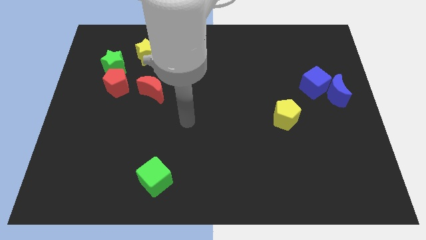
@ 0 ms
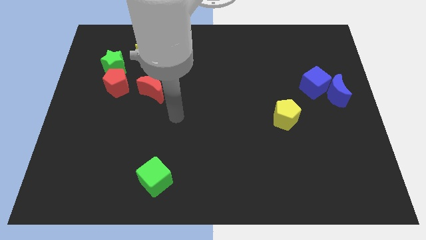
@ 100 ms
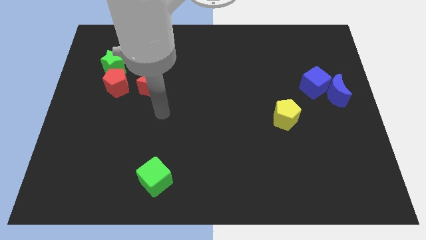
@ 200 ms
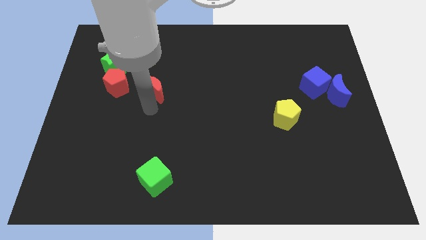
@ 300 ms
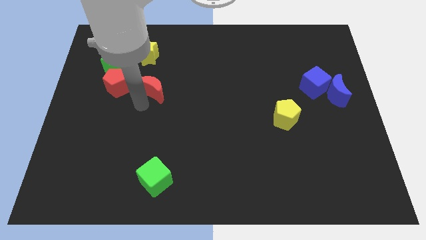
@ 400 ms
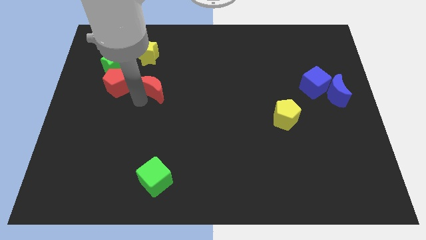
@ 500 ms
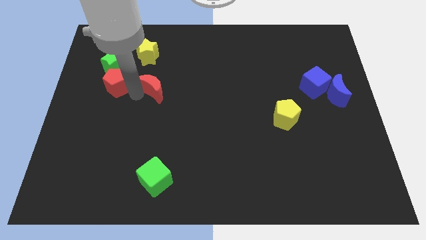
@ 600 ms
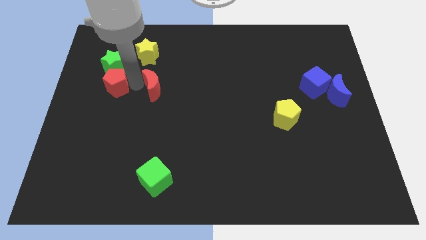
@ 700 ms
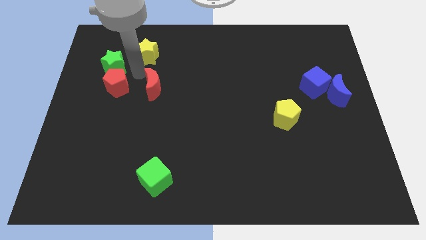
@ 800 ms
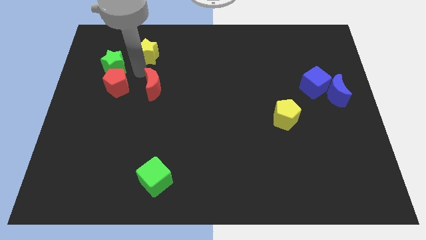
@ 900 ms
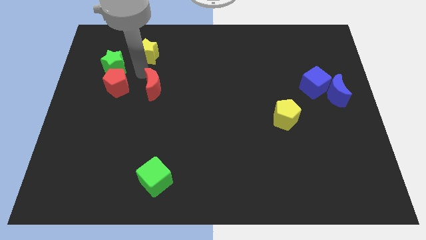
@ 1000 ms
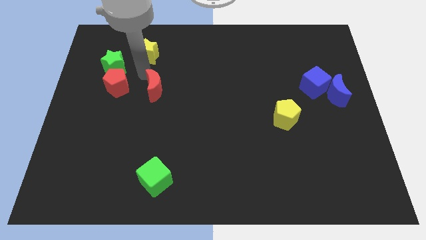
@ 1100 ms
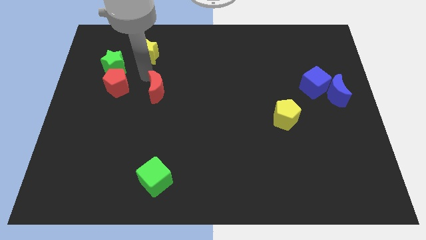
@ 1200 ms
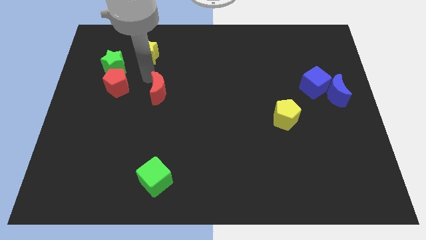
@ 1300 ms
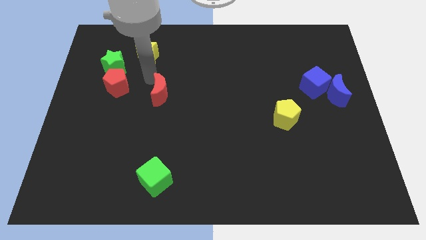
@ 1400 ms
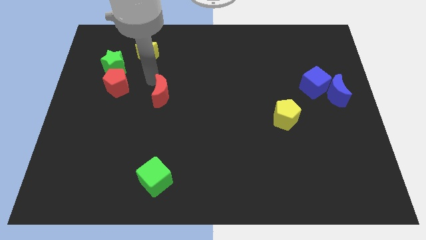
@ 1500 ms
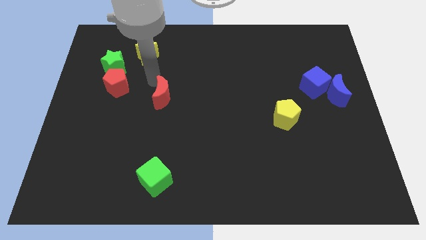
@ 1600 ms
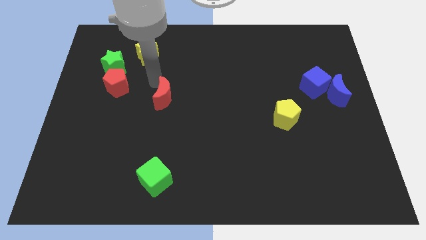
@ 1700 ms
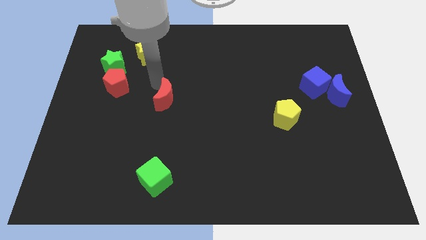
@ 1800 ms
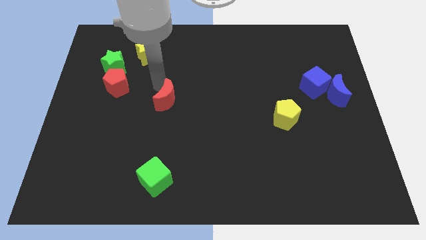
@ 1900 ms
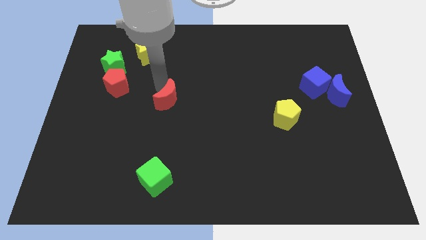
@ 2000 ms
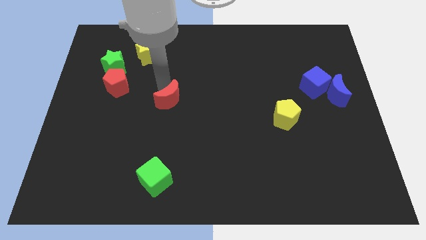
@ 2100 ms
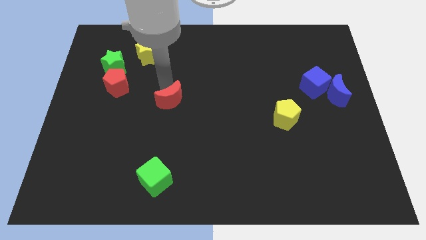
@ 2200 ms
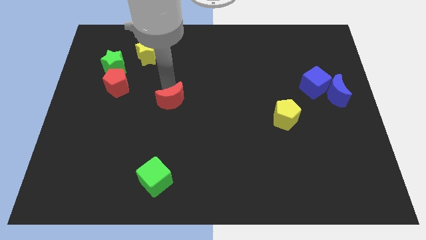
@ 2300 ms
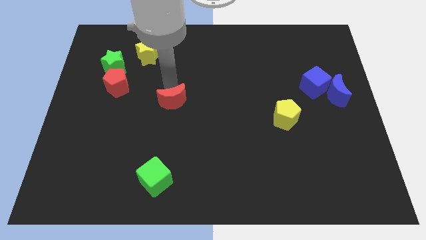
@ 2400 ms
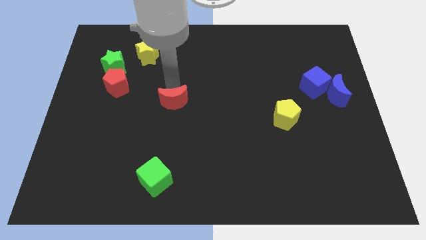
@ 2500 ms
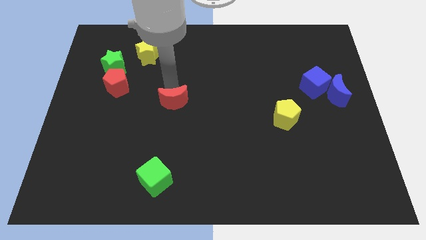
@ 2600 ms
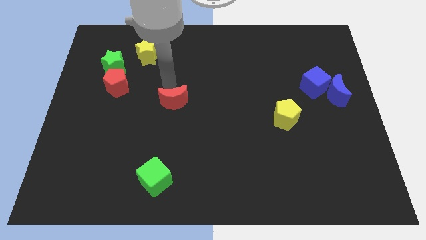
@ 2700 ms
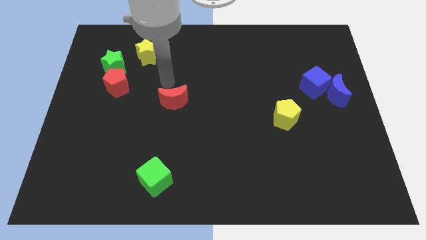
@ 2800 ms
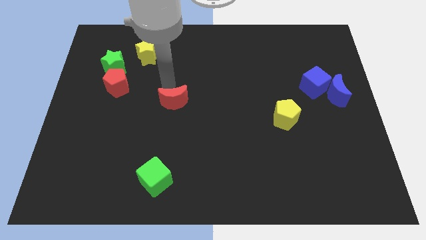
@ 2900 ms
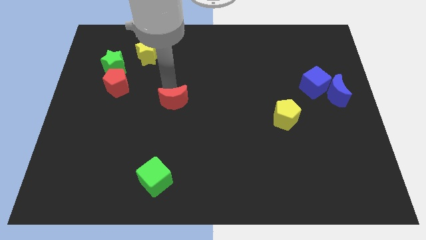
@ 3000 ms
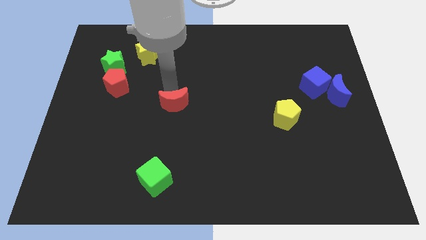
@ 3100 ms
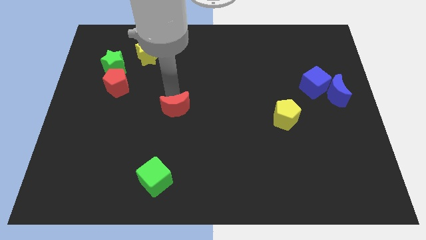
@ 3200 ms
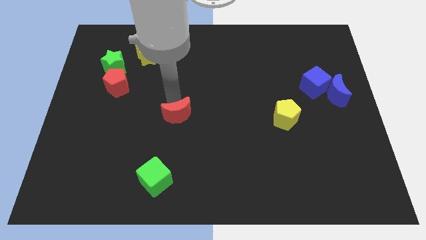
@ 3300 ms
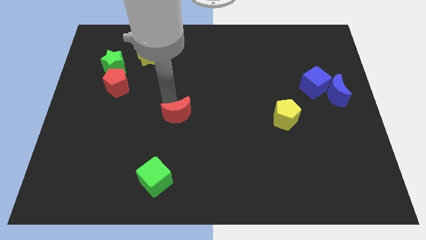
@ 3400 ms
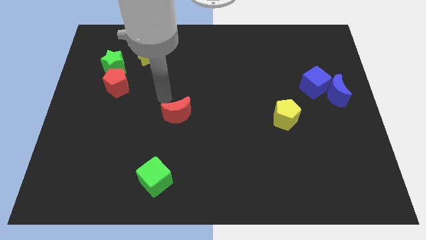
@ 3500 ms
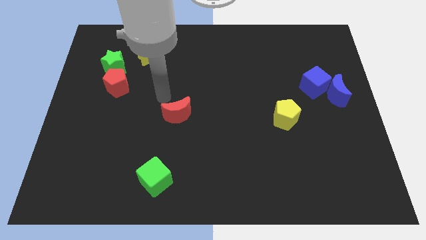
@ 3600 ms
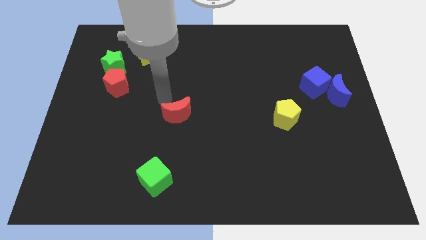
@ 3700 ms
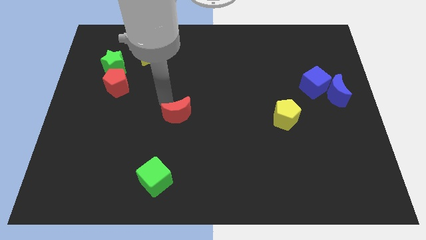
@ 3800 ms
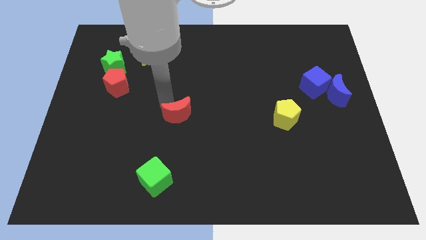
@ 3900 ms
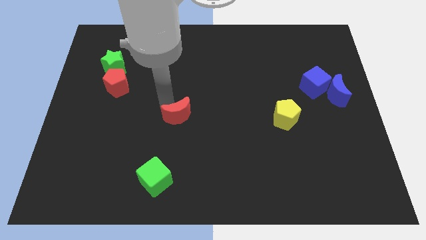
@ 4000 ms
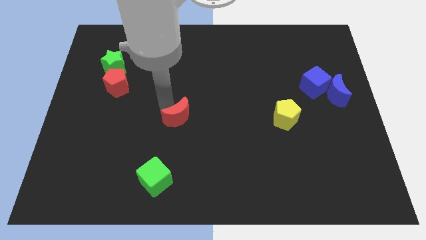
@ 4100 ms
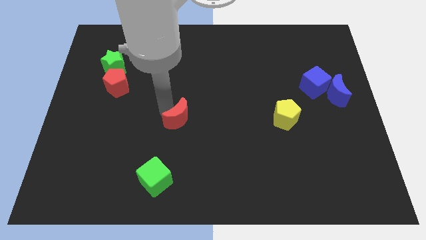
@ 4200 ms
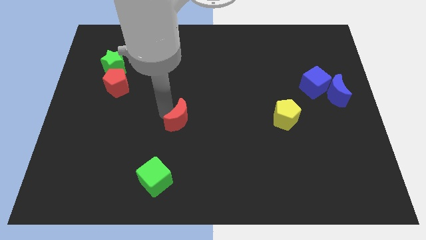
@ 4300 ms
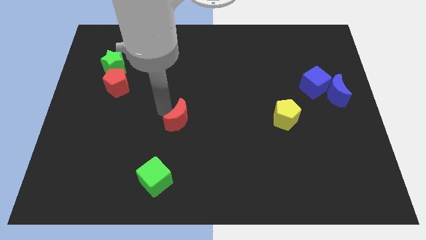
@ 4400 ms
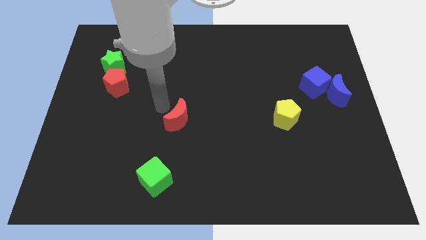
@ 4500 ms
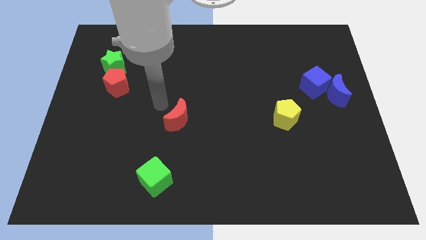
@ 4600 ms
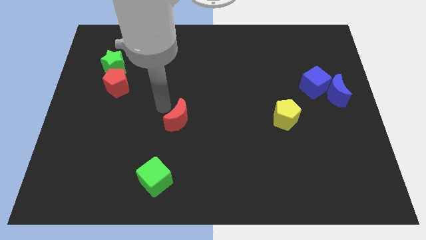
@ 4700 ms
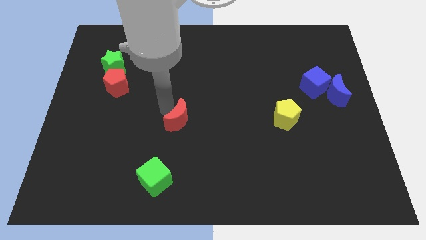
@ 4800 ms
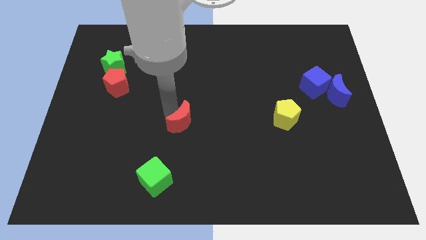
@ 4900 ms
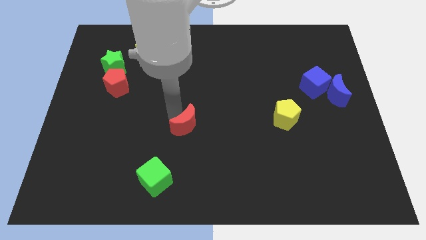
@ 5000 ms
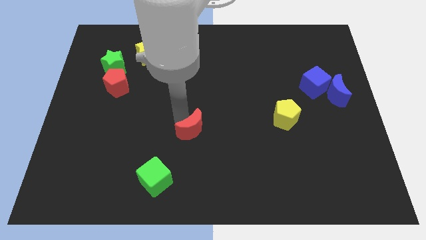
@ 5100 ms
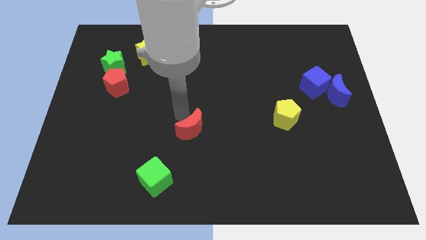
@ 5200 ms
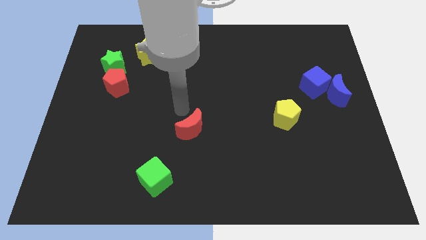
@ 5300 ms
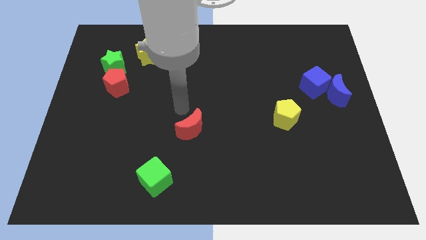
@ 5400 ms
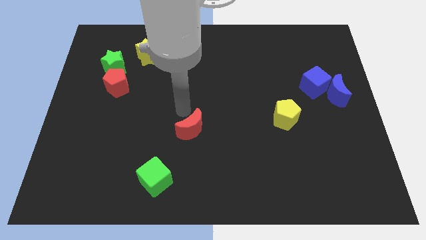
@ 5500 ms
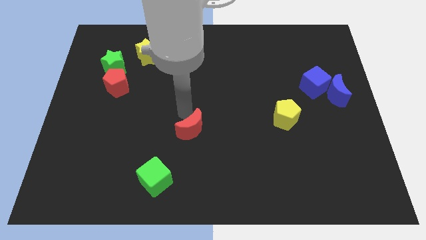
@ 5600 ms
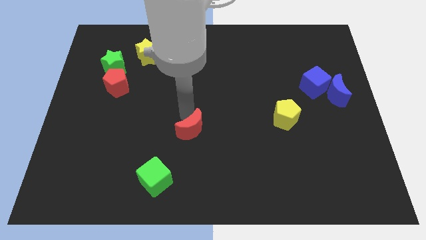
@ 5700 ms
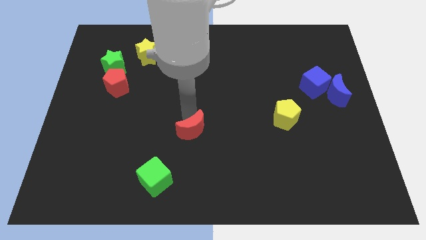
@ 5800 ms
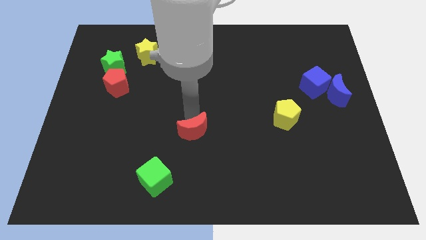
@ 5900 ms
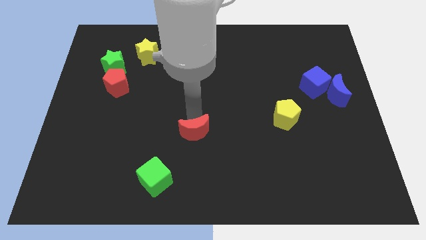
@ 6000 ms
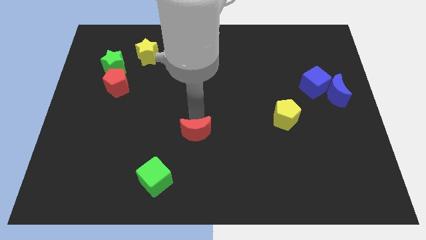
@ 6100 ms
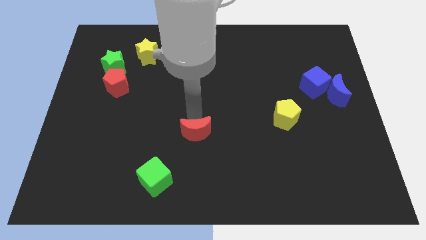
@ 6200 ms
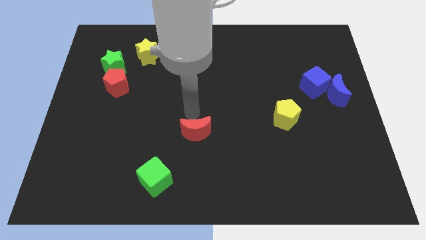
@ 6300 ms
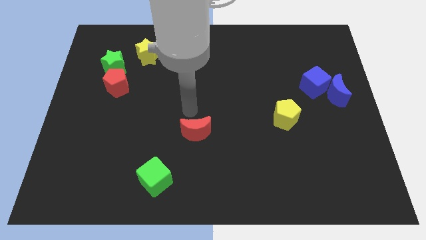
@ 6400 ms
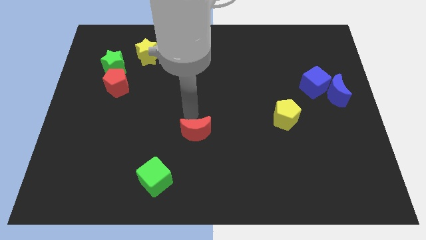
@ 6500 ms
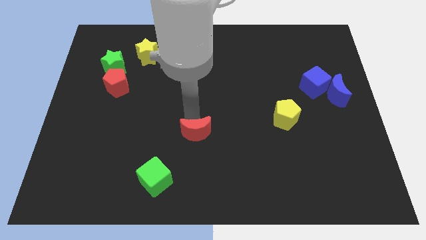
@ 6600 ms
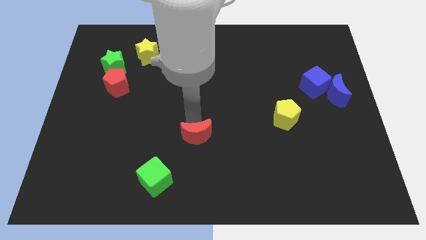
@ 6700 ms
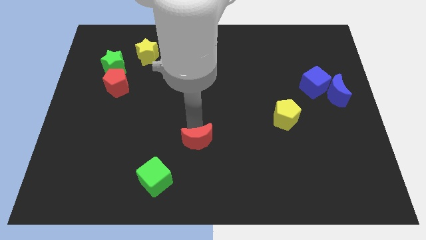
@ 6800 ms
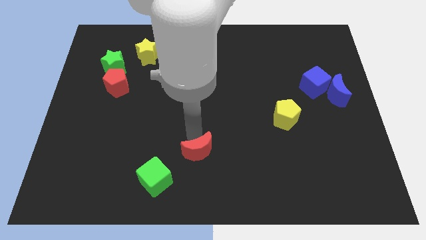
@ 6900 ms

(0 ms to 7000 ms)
move the red moon down and then to the right

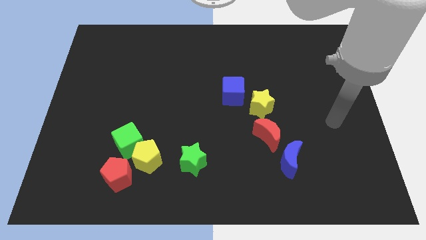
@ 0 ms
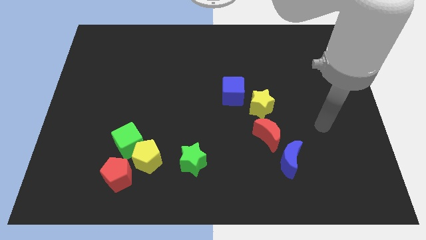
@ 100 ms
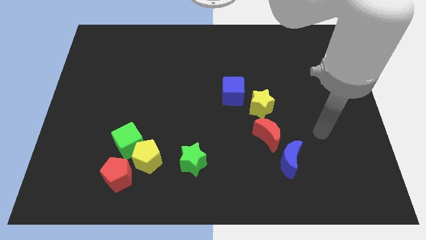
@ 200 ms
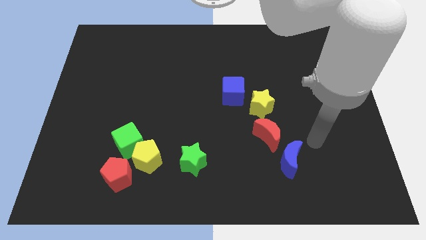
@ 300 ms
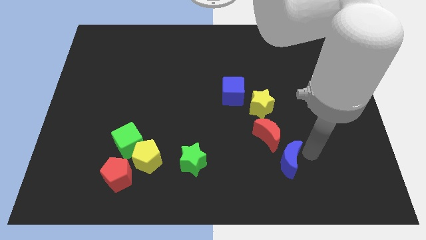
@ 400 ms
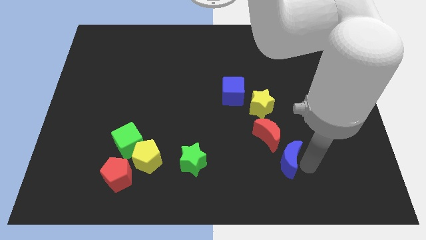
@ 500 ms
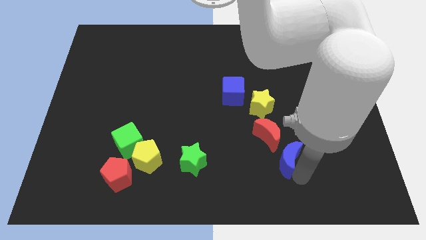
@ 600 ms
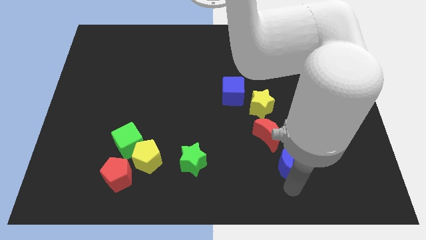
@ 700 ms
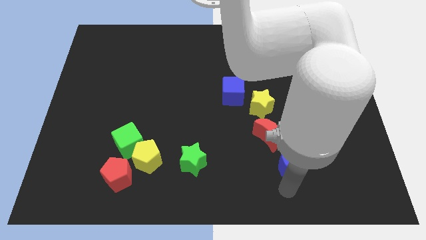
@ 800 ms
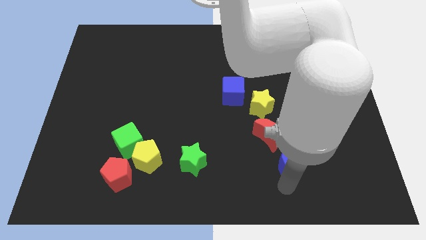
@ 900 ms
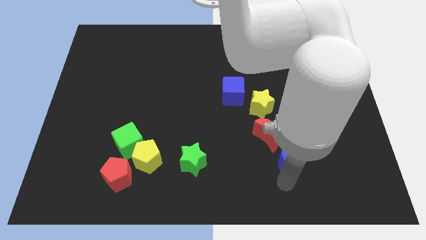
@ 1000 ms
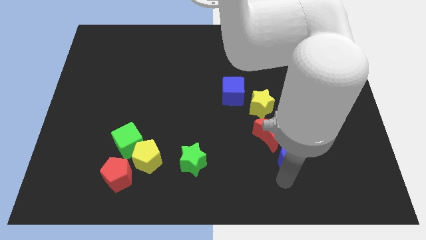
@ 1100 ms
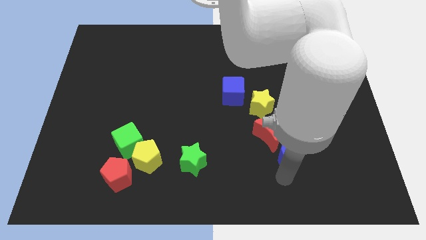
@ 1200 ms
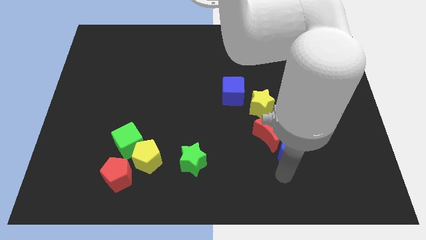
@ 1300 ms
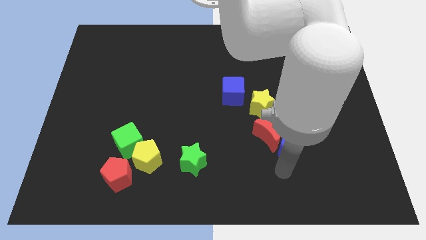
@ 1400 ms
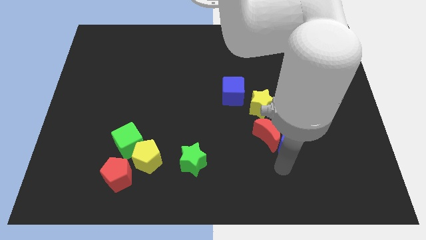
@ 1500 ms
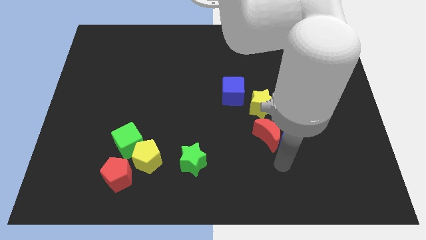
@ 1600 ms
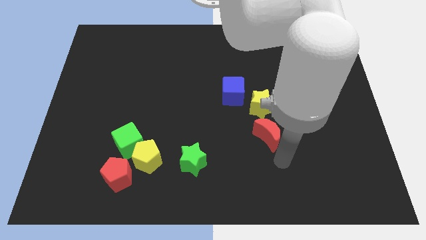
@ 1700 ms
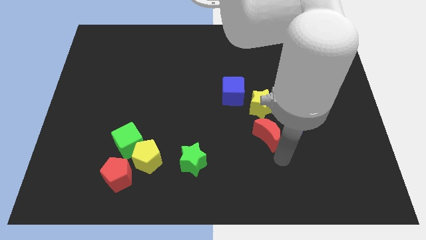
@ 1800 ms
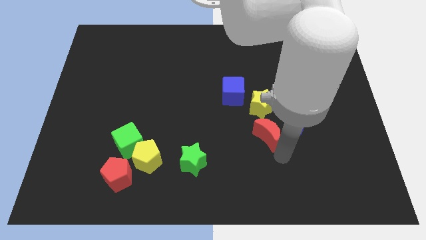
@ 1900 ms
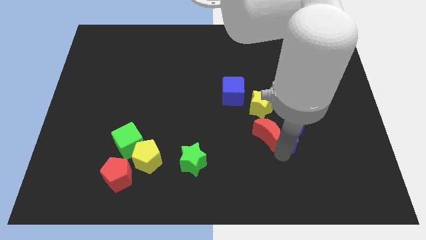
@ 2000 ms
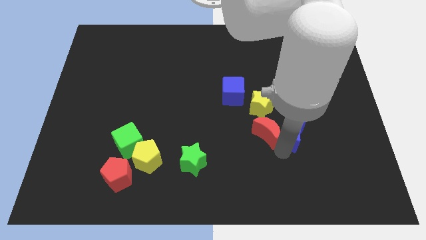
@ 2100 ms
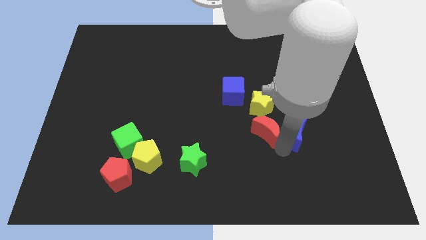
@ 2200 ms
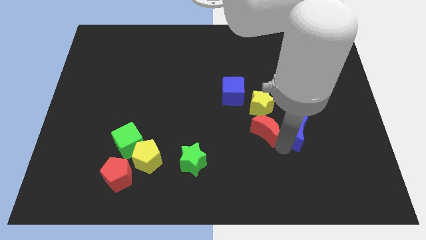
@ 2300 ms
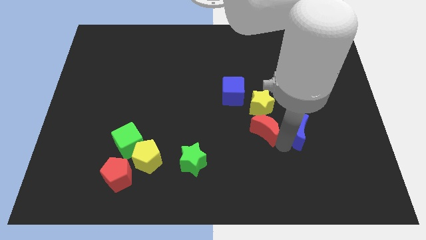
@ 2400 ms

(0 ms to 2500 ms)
slide the blue moon slightly up
